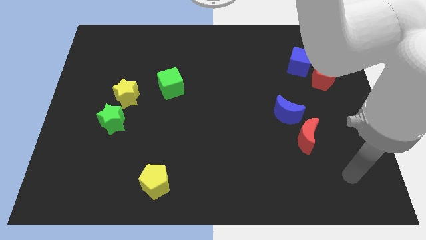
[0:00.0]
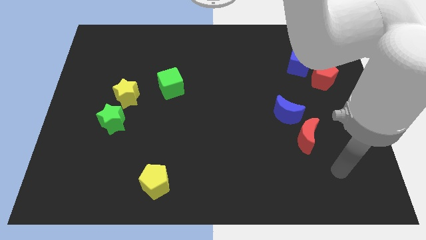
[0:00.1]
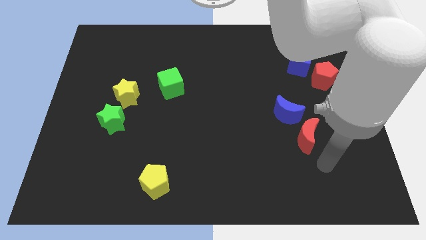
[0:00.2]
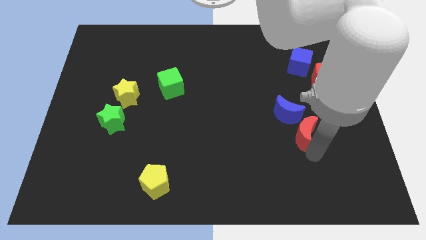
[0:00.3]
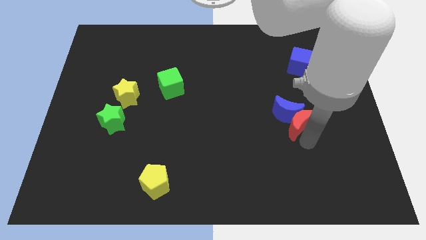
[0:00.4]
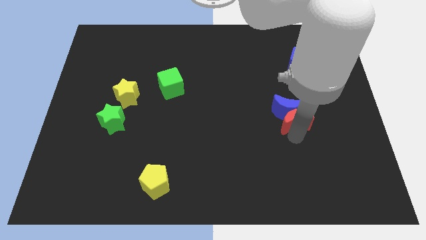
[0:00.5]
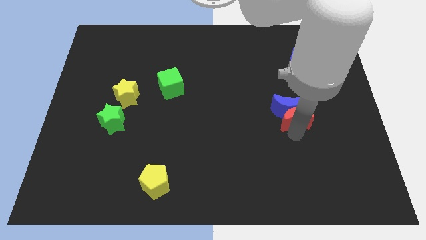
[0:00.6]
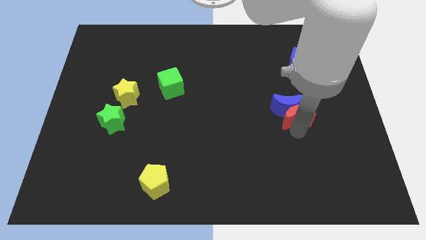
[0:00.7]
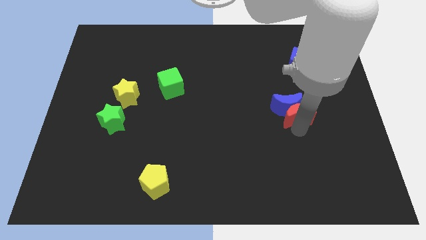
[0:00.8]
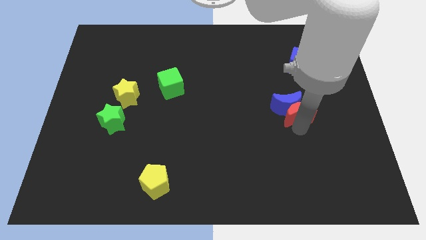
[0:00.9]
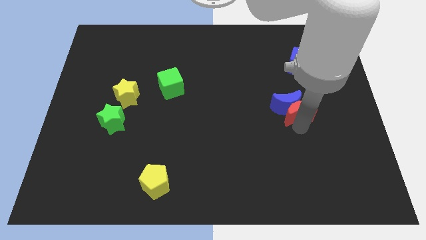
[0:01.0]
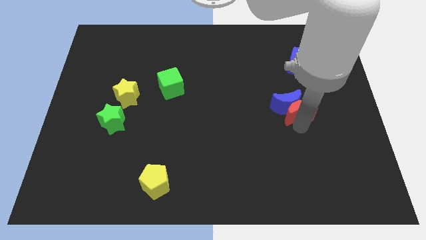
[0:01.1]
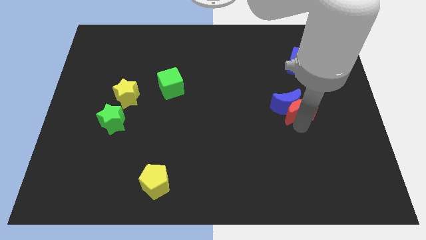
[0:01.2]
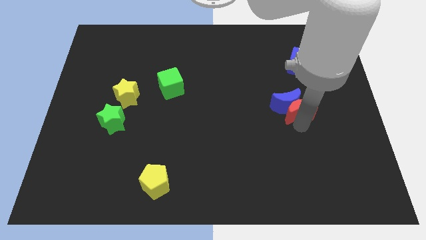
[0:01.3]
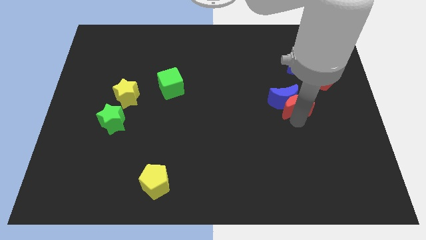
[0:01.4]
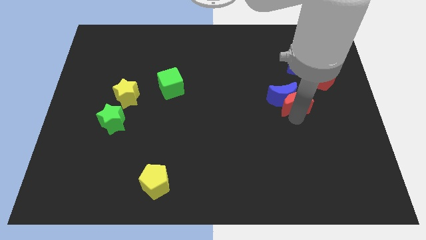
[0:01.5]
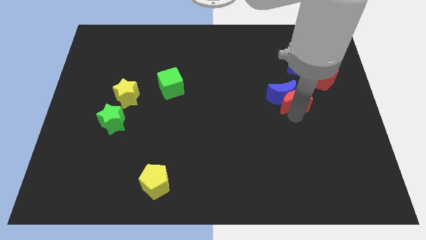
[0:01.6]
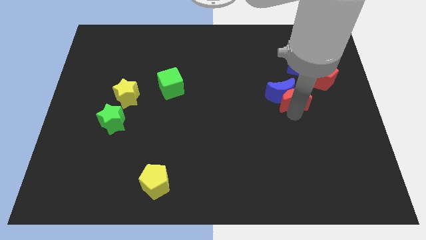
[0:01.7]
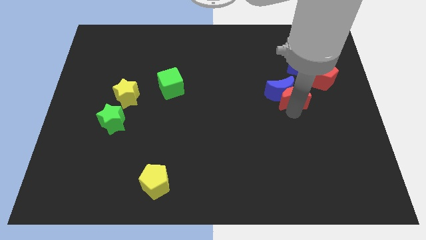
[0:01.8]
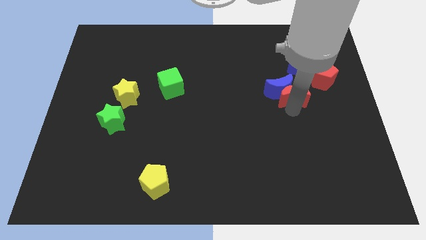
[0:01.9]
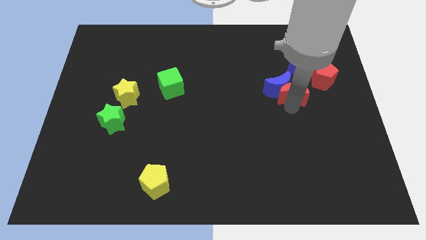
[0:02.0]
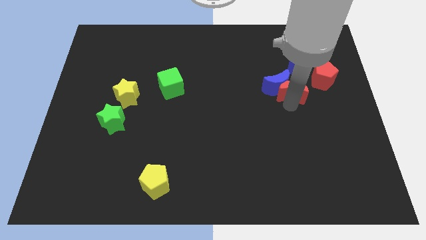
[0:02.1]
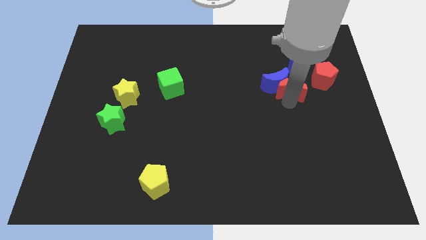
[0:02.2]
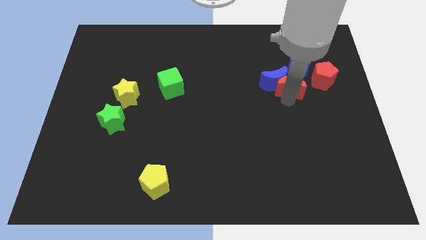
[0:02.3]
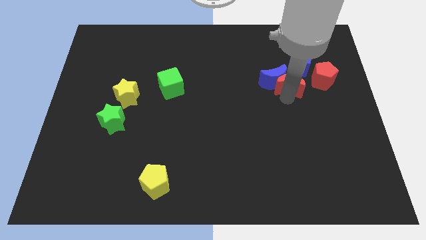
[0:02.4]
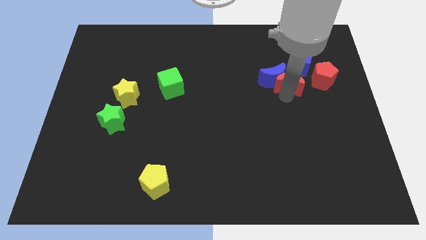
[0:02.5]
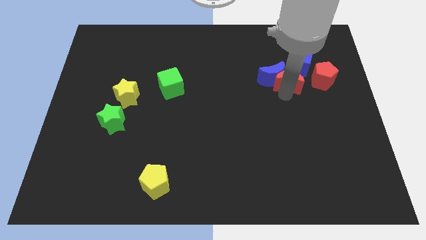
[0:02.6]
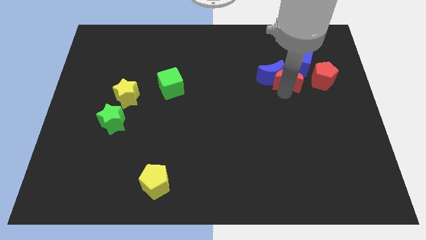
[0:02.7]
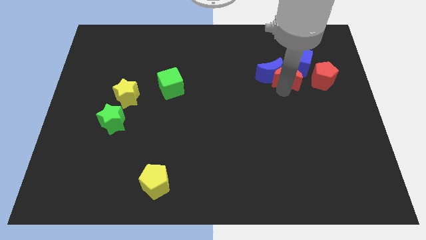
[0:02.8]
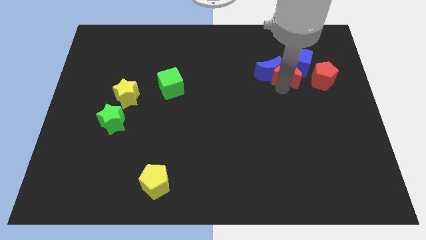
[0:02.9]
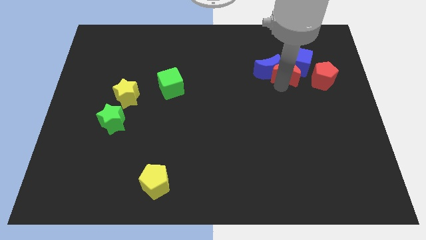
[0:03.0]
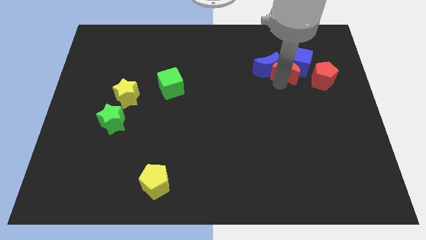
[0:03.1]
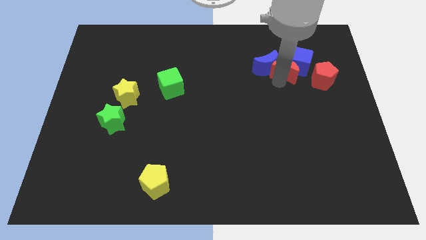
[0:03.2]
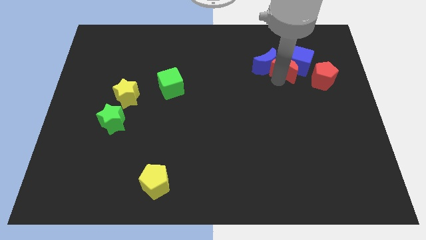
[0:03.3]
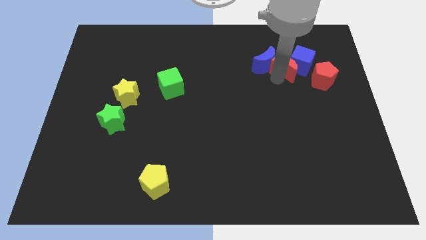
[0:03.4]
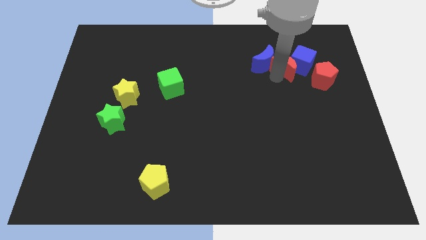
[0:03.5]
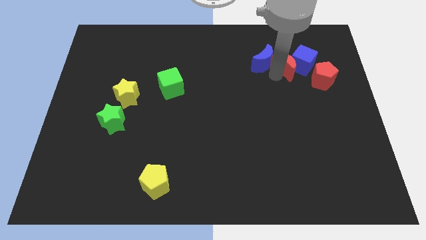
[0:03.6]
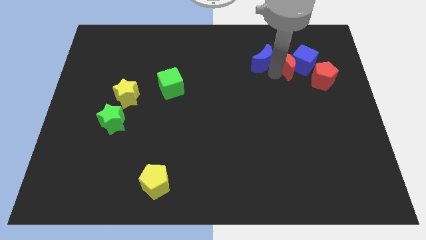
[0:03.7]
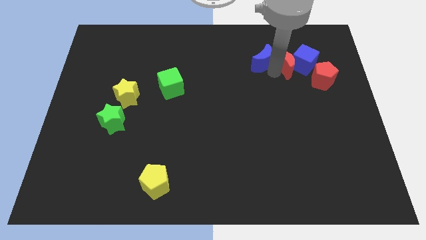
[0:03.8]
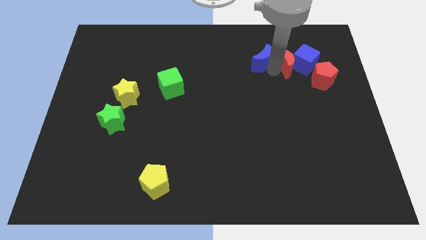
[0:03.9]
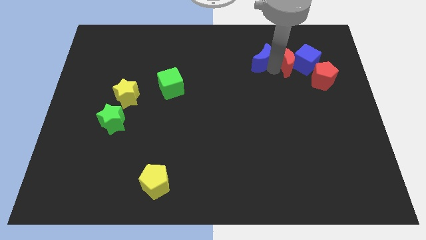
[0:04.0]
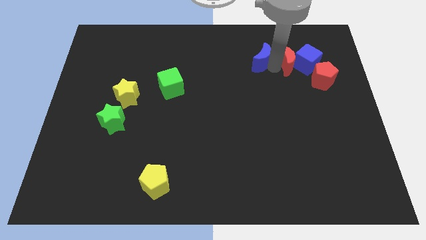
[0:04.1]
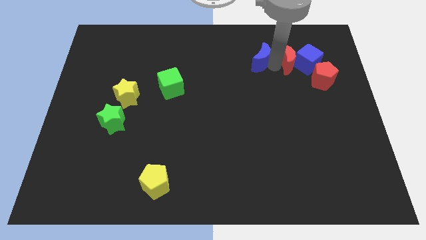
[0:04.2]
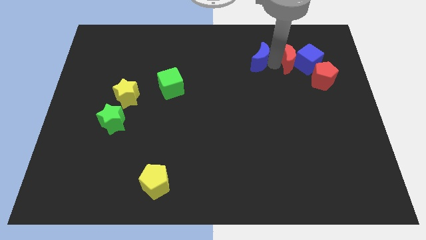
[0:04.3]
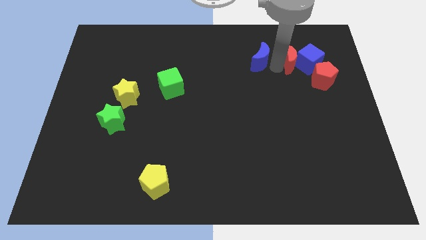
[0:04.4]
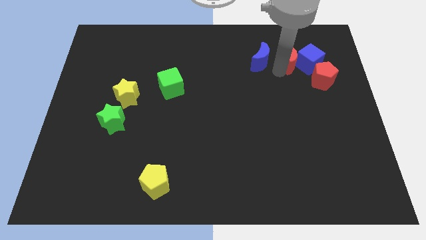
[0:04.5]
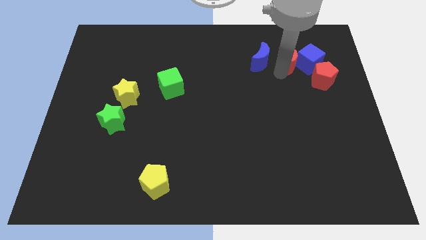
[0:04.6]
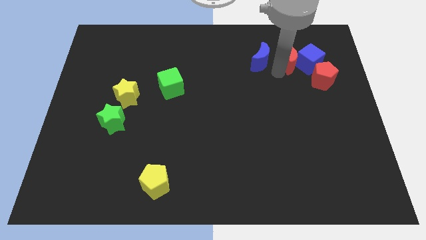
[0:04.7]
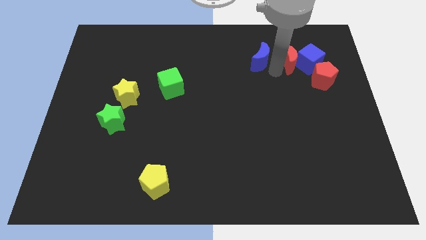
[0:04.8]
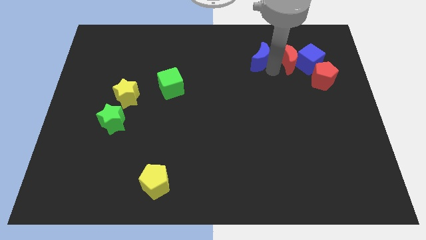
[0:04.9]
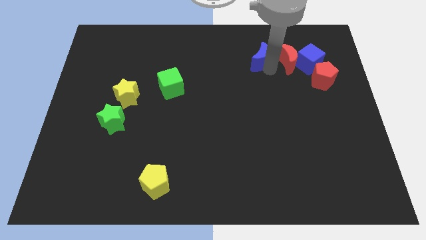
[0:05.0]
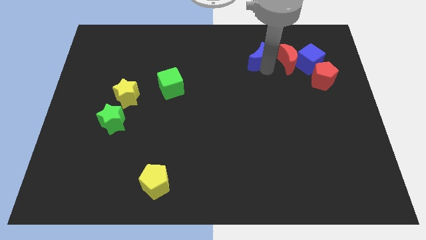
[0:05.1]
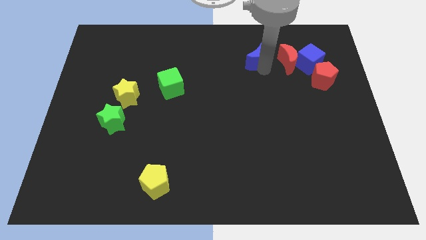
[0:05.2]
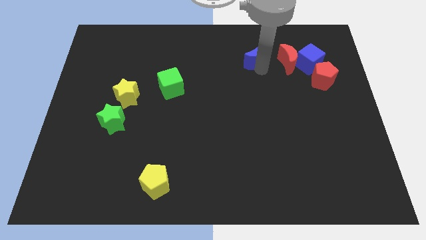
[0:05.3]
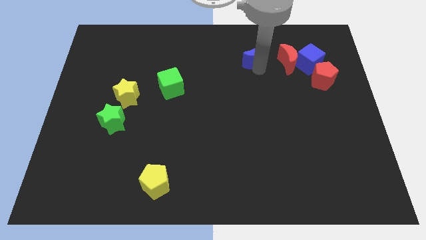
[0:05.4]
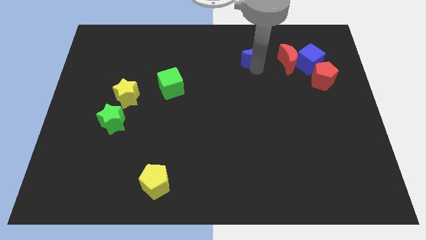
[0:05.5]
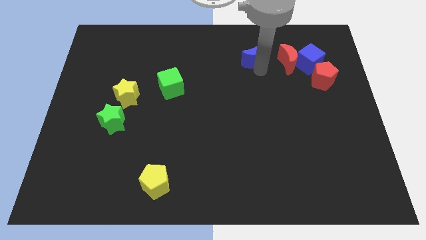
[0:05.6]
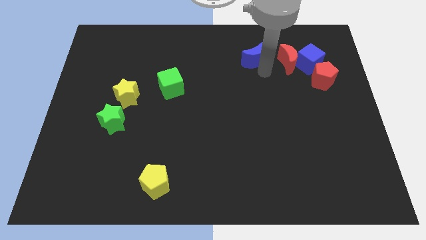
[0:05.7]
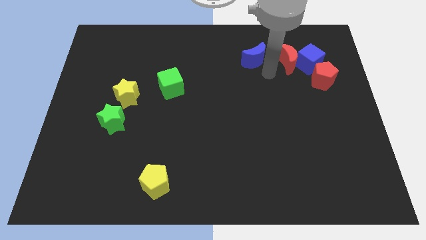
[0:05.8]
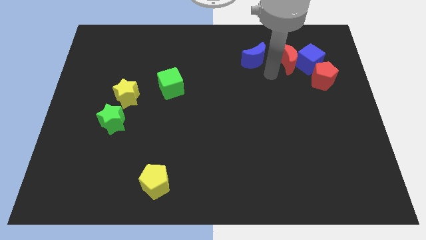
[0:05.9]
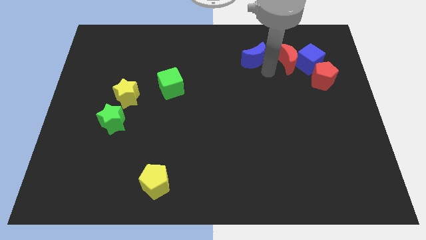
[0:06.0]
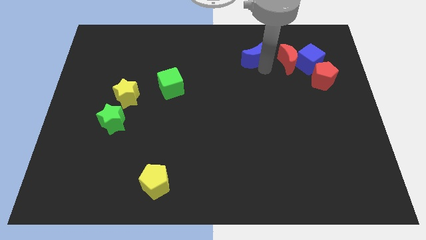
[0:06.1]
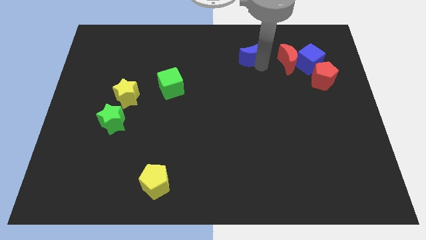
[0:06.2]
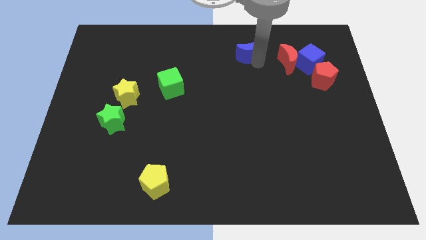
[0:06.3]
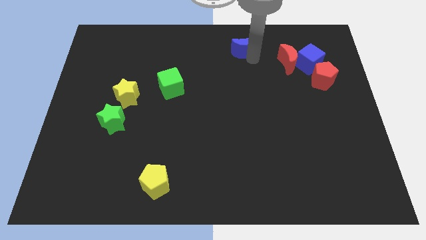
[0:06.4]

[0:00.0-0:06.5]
move the blue moon to the towards your base
